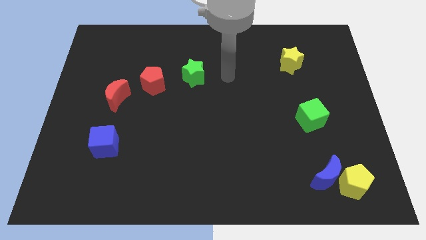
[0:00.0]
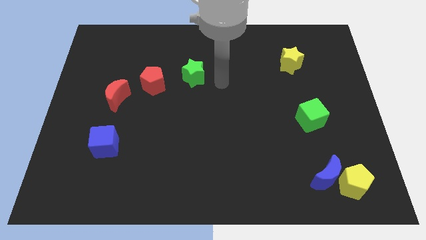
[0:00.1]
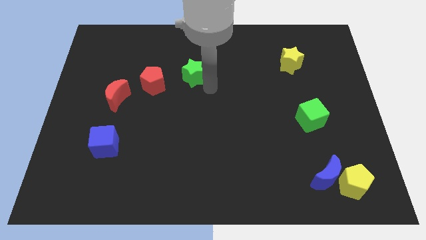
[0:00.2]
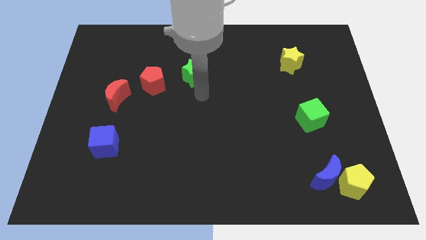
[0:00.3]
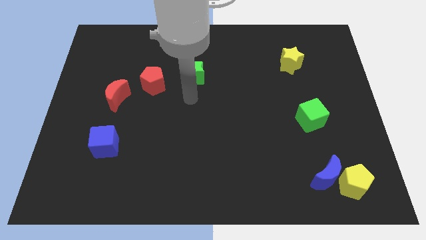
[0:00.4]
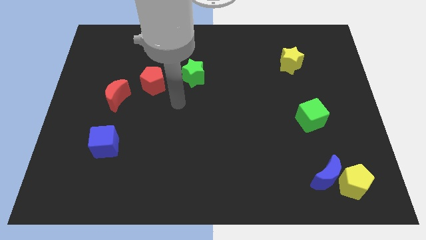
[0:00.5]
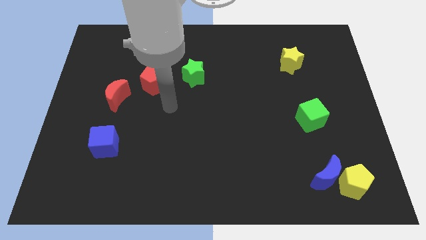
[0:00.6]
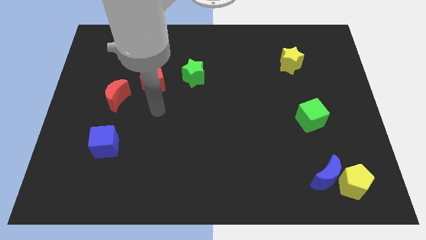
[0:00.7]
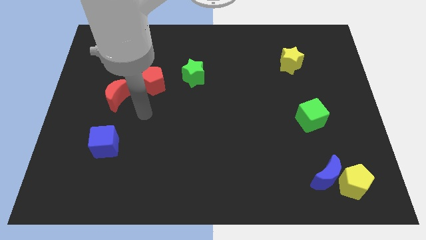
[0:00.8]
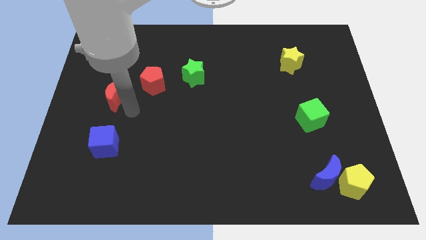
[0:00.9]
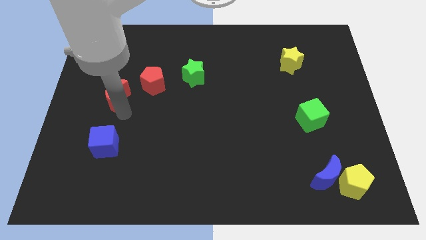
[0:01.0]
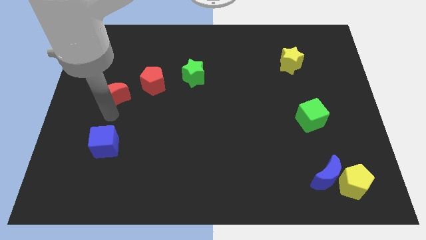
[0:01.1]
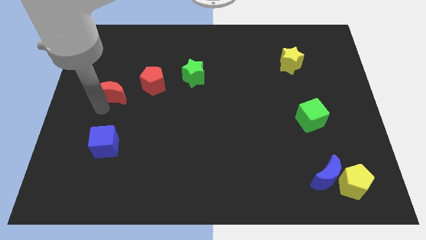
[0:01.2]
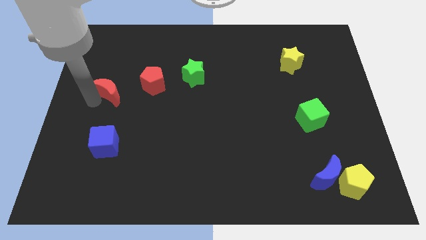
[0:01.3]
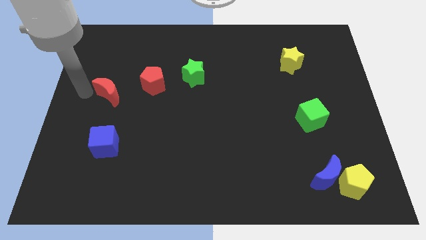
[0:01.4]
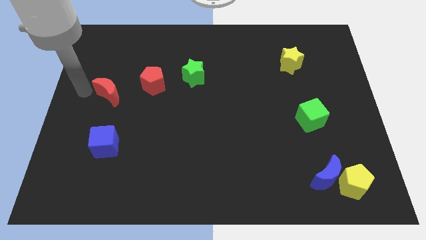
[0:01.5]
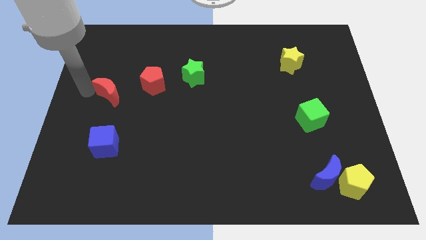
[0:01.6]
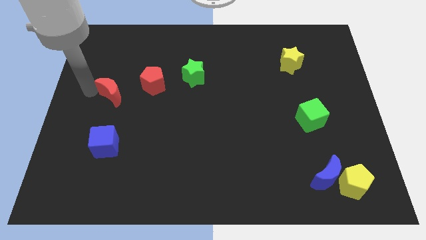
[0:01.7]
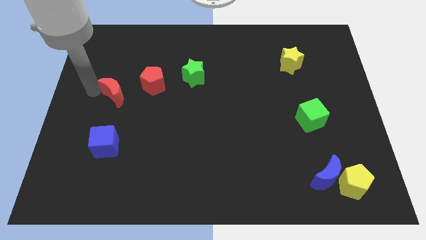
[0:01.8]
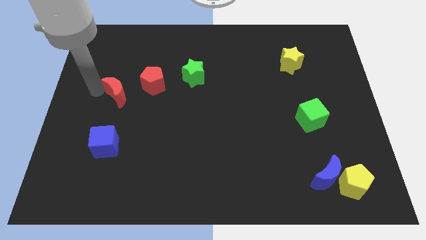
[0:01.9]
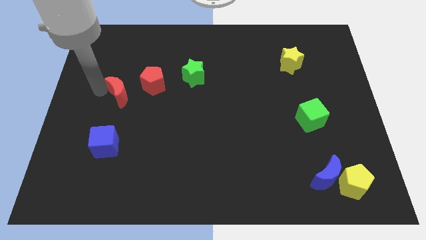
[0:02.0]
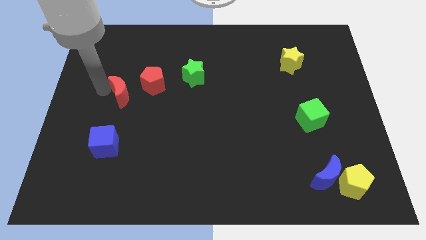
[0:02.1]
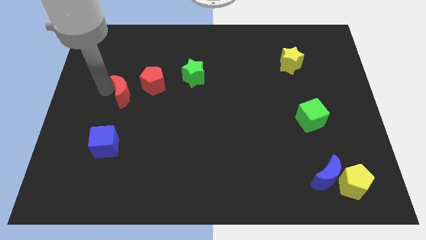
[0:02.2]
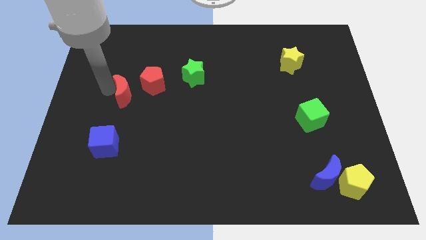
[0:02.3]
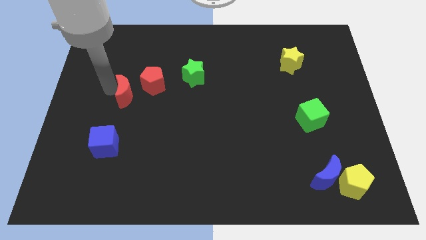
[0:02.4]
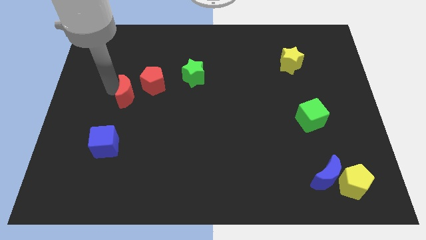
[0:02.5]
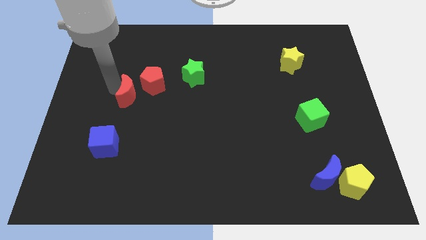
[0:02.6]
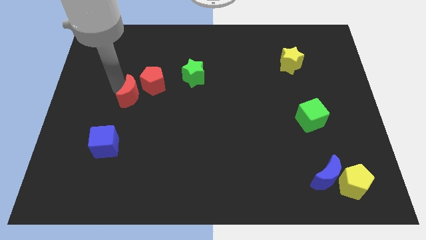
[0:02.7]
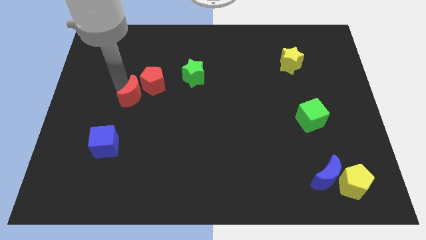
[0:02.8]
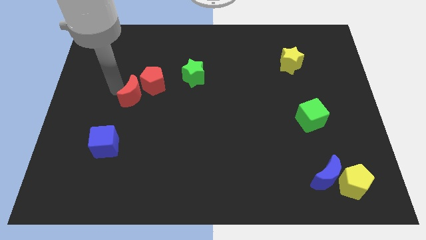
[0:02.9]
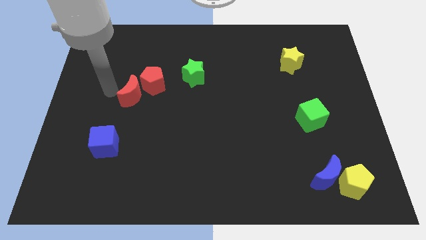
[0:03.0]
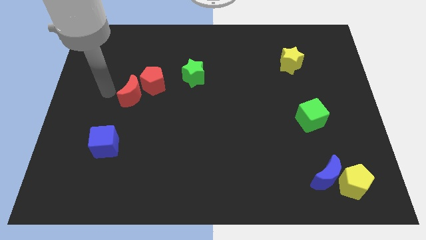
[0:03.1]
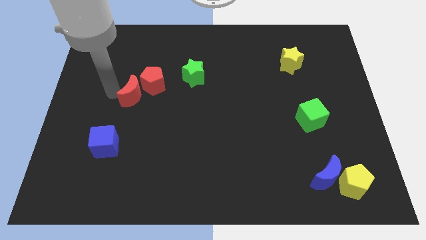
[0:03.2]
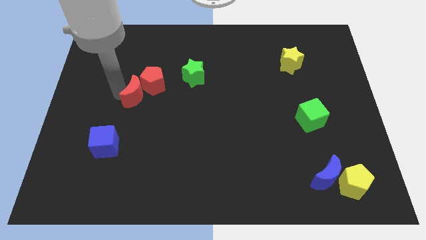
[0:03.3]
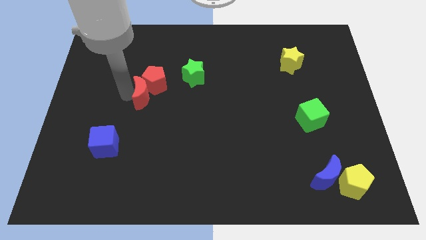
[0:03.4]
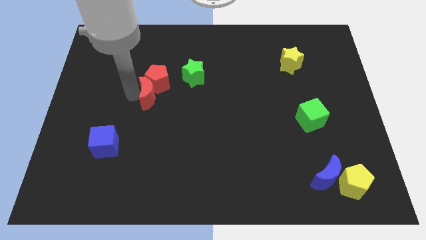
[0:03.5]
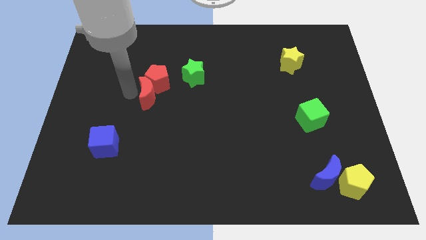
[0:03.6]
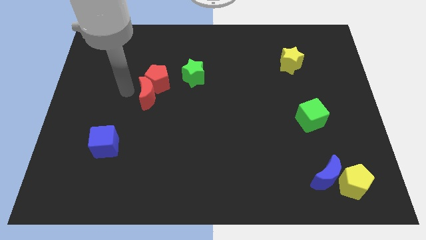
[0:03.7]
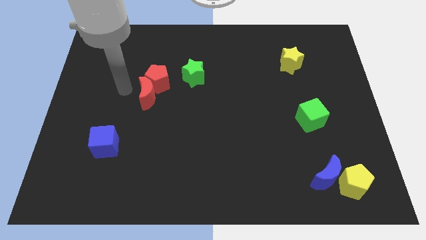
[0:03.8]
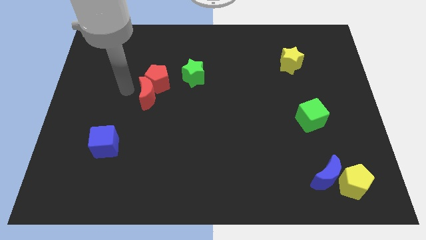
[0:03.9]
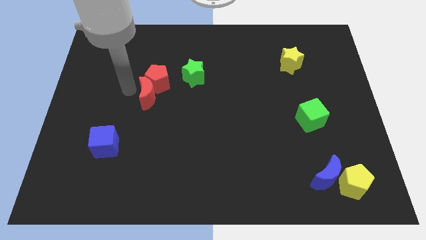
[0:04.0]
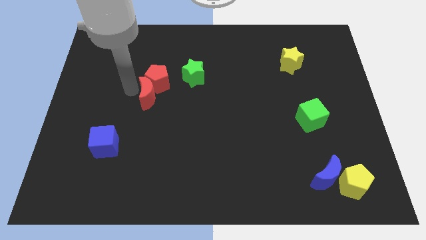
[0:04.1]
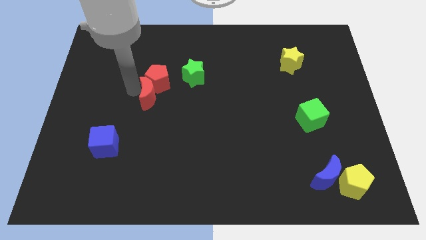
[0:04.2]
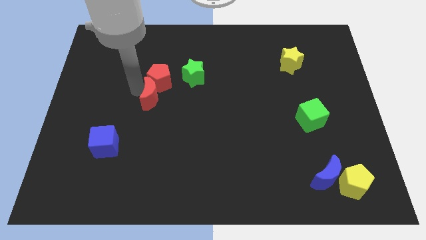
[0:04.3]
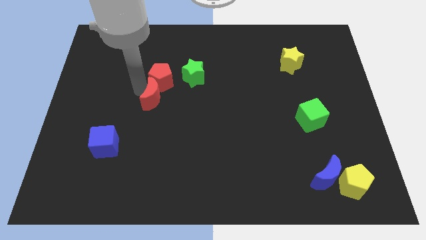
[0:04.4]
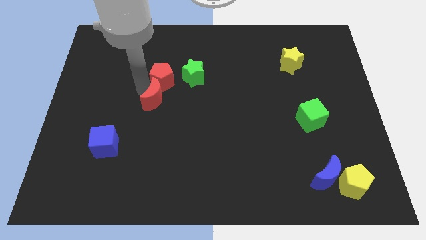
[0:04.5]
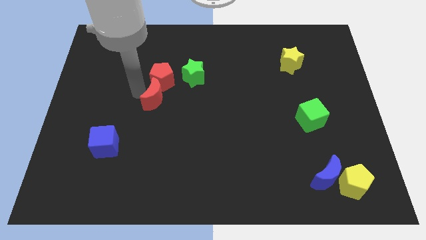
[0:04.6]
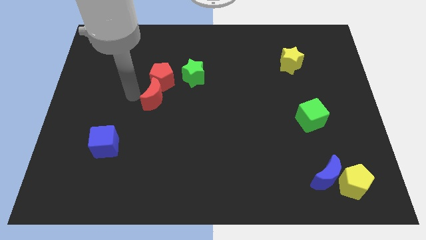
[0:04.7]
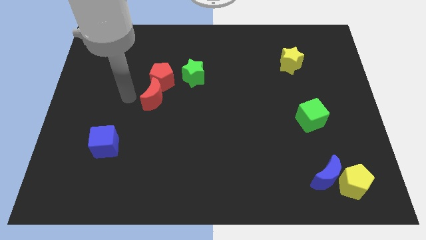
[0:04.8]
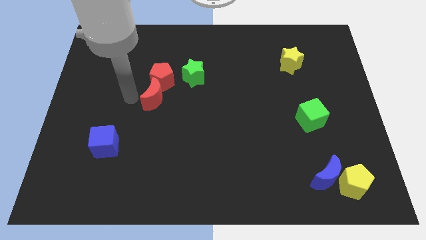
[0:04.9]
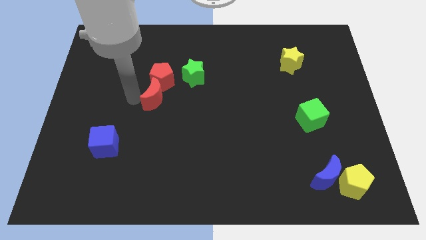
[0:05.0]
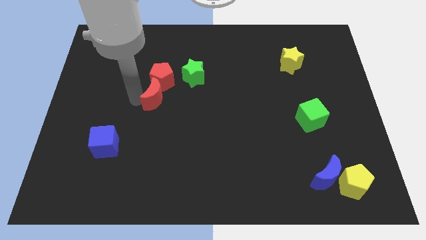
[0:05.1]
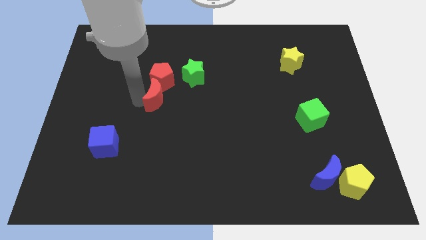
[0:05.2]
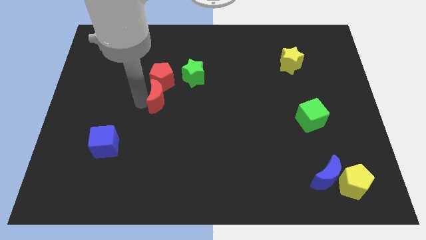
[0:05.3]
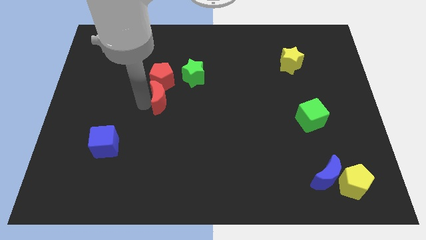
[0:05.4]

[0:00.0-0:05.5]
slide the red moon to the middle

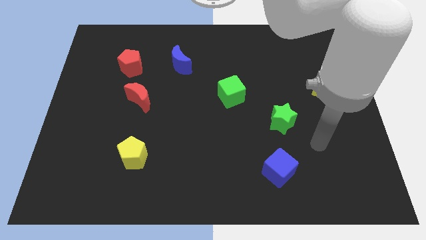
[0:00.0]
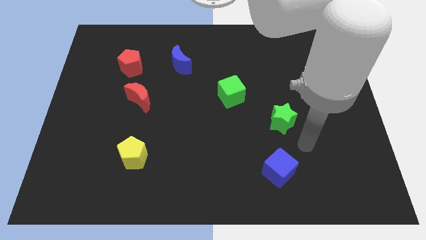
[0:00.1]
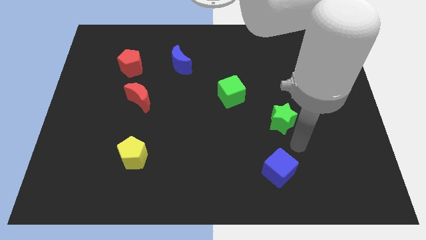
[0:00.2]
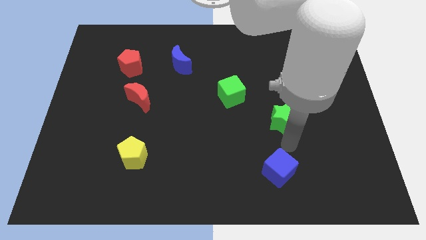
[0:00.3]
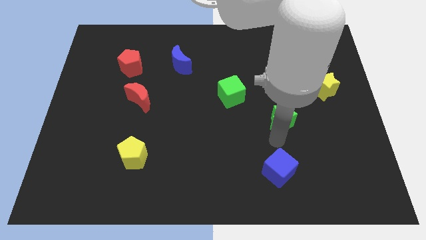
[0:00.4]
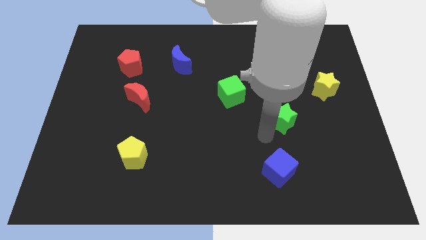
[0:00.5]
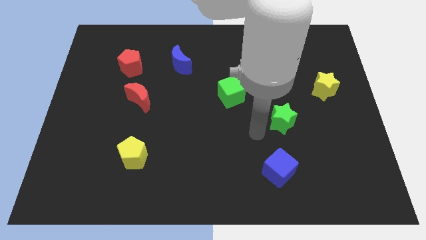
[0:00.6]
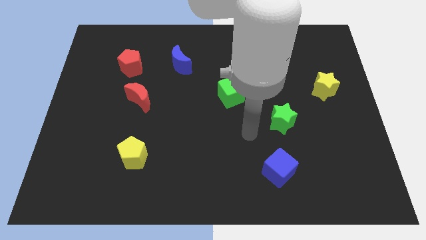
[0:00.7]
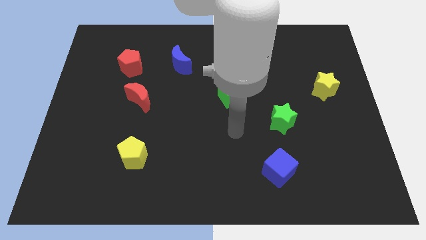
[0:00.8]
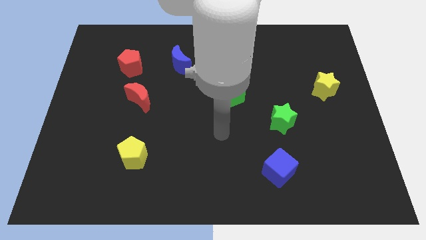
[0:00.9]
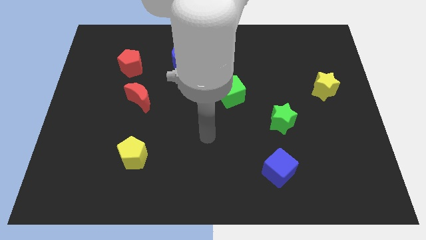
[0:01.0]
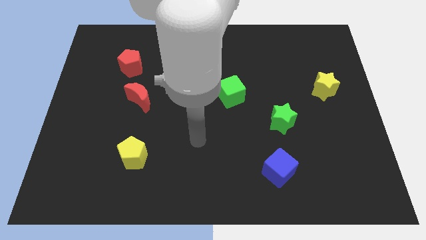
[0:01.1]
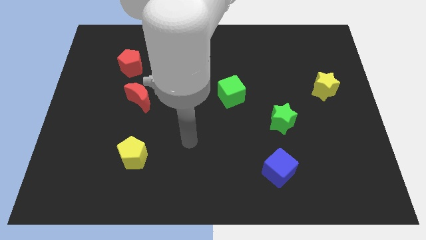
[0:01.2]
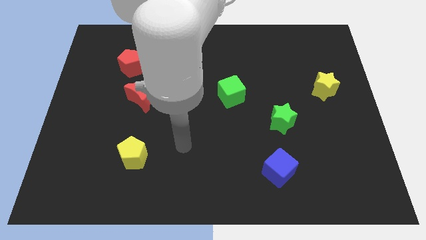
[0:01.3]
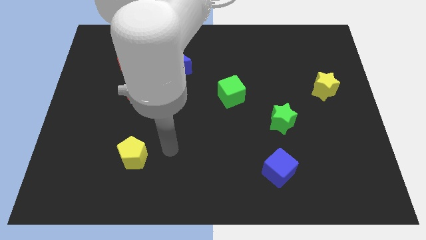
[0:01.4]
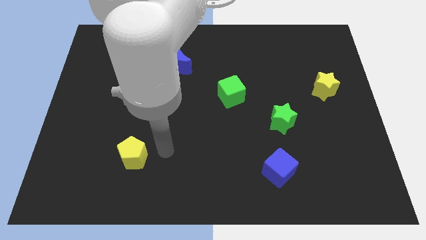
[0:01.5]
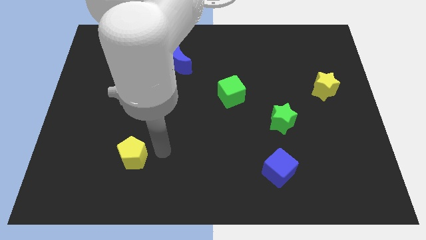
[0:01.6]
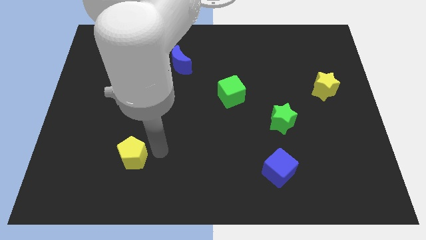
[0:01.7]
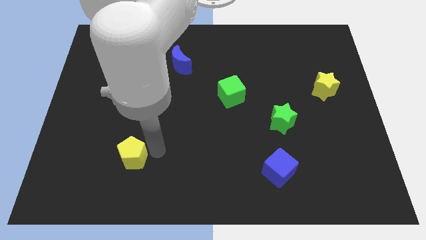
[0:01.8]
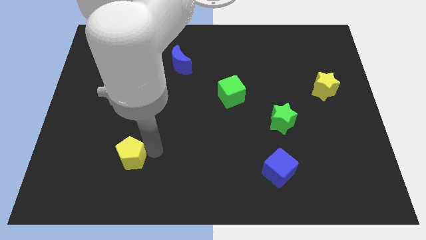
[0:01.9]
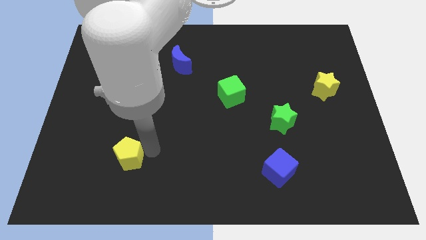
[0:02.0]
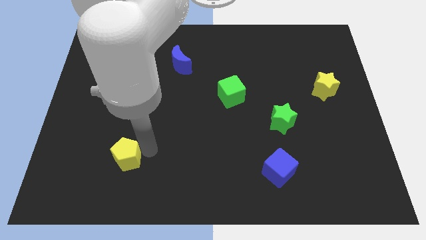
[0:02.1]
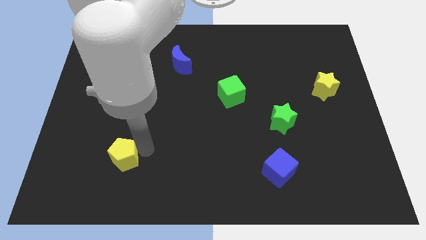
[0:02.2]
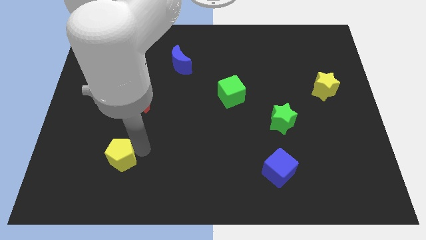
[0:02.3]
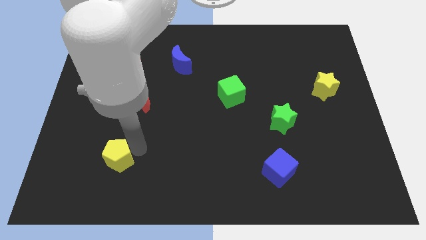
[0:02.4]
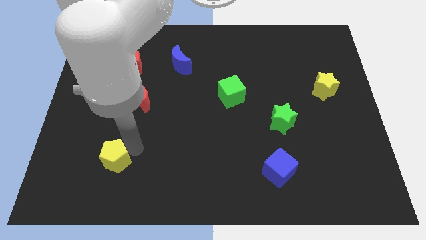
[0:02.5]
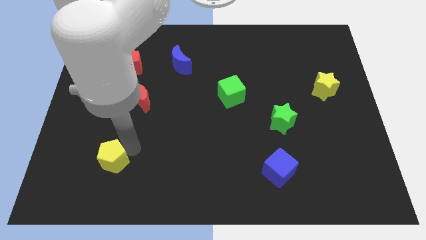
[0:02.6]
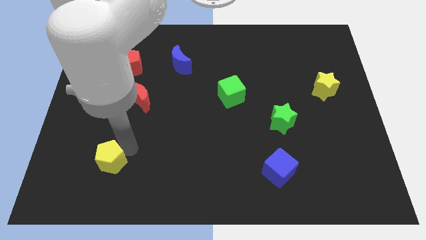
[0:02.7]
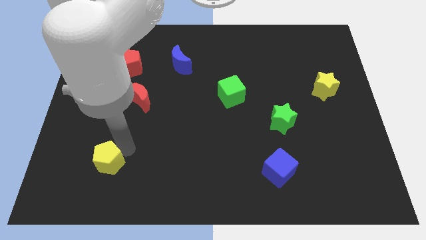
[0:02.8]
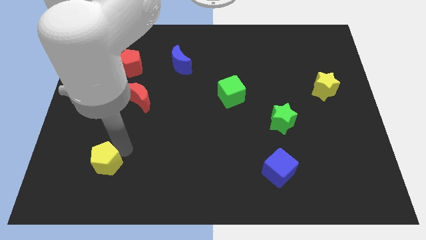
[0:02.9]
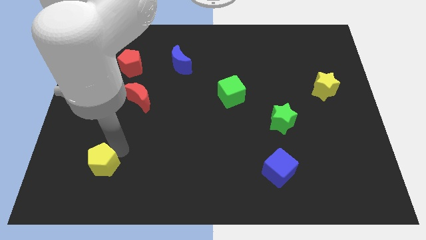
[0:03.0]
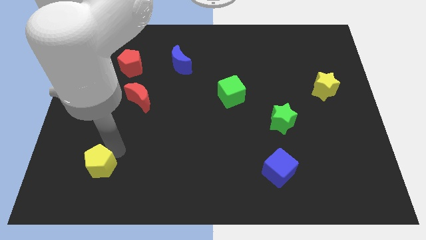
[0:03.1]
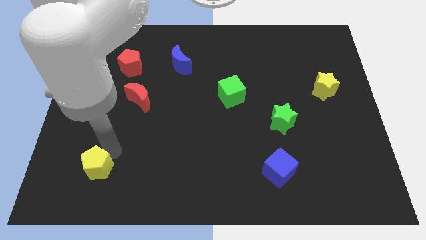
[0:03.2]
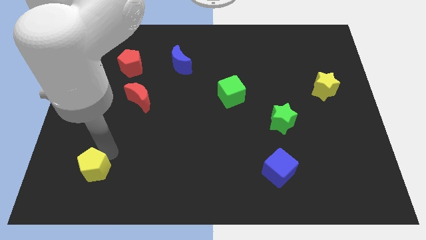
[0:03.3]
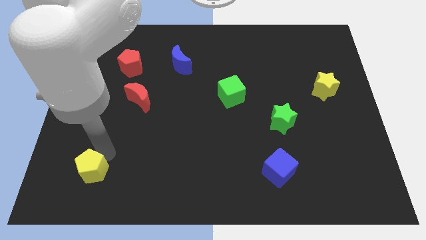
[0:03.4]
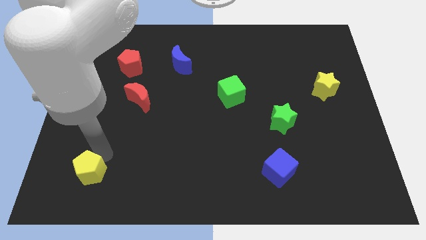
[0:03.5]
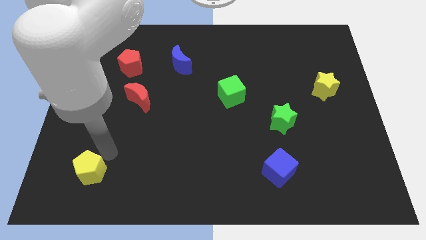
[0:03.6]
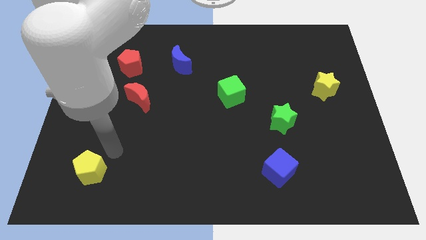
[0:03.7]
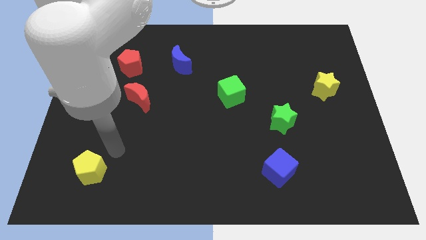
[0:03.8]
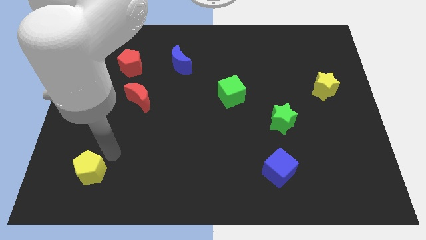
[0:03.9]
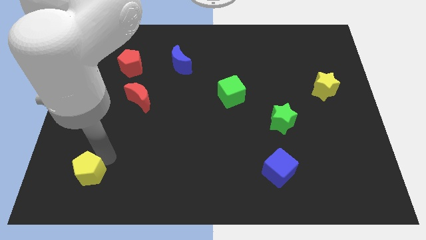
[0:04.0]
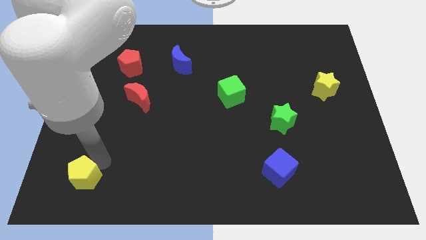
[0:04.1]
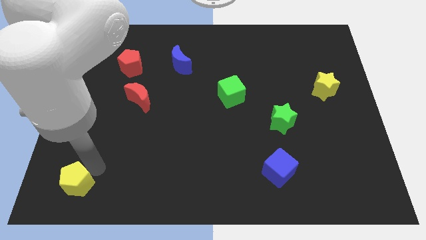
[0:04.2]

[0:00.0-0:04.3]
slide the yellow pentagon to the bottom left of the board
